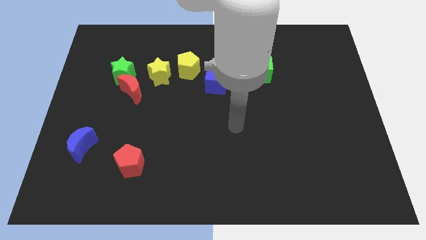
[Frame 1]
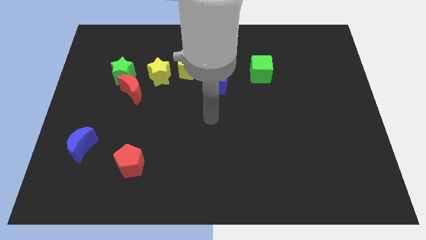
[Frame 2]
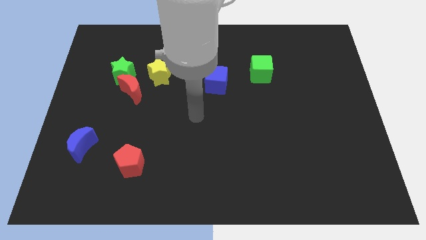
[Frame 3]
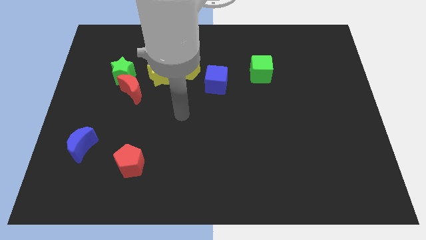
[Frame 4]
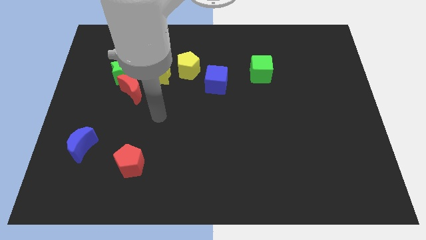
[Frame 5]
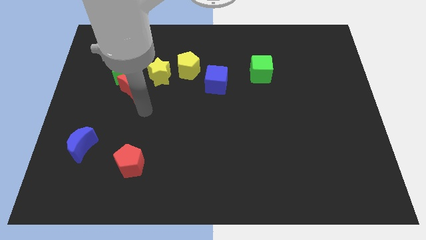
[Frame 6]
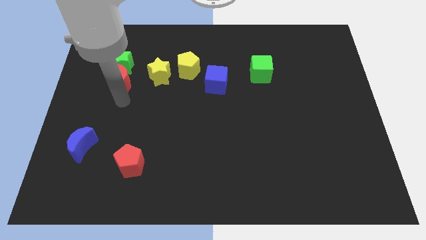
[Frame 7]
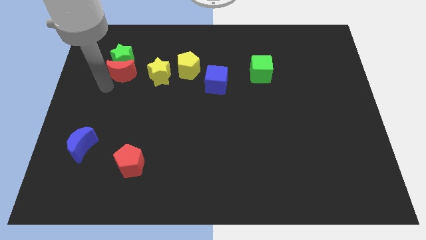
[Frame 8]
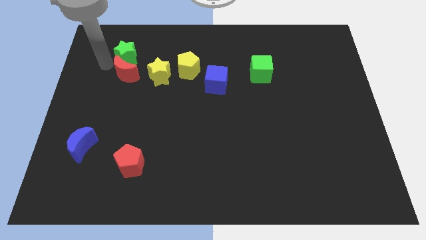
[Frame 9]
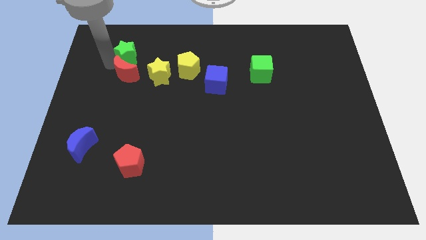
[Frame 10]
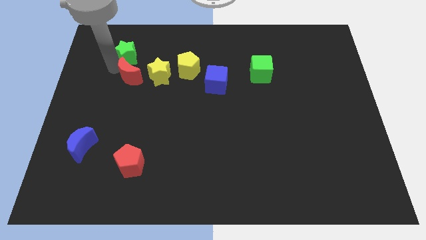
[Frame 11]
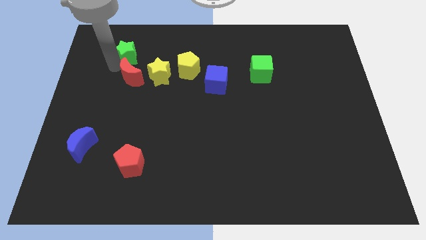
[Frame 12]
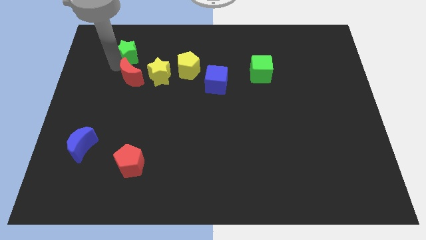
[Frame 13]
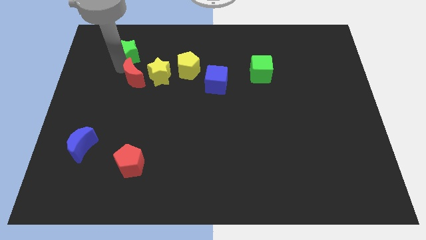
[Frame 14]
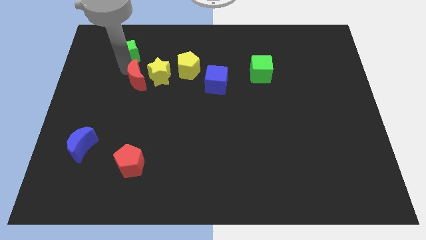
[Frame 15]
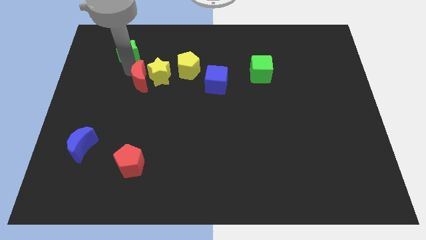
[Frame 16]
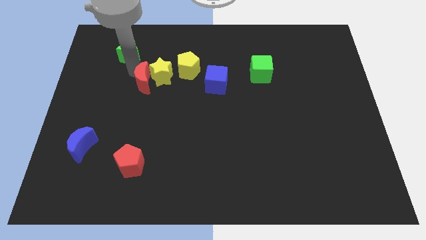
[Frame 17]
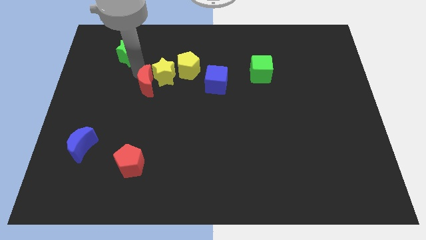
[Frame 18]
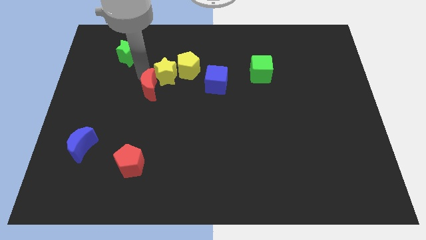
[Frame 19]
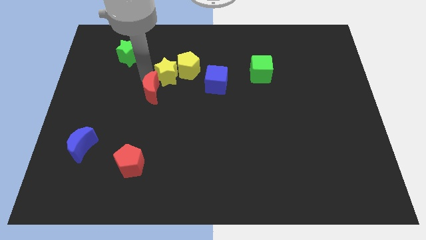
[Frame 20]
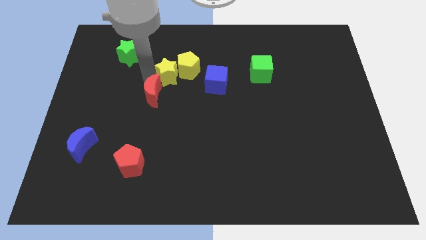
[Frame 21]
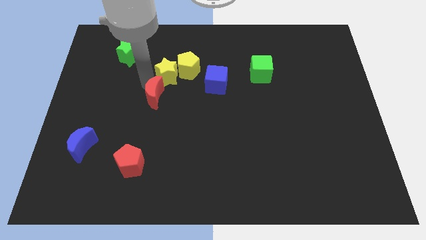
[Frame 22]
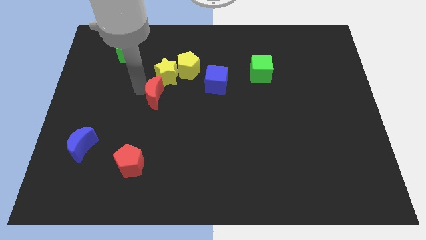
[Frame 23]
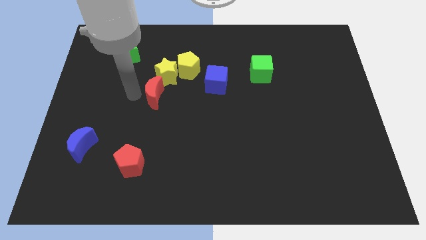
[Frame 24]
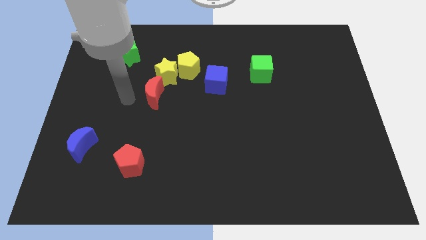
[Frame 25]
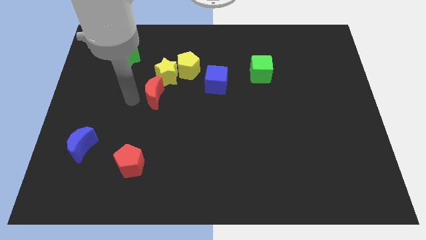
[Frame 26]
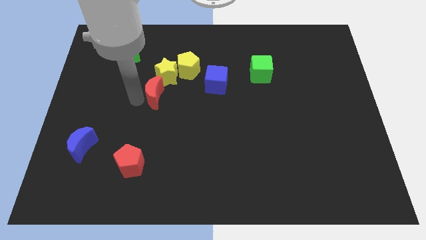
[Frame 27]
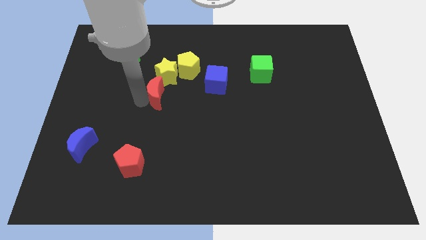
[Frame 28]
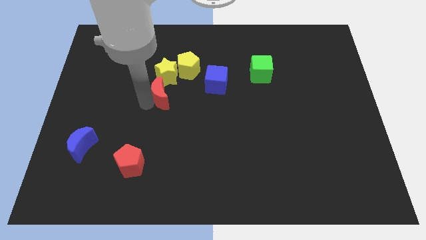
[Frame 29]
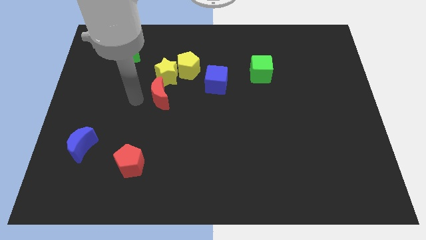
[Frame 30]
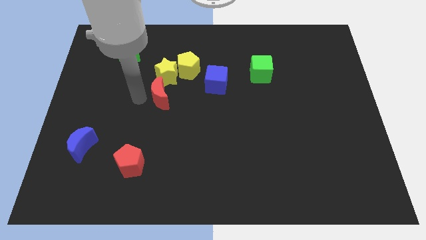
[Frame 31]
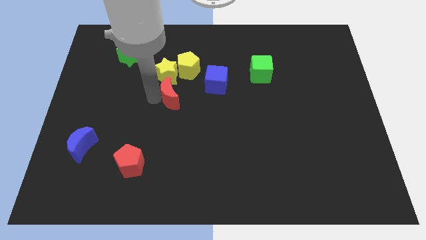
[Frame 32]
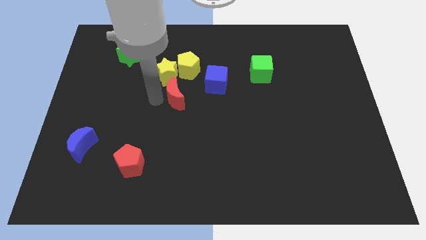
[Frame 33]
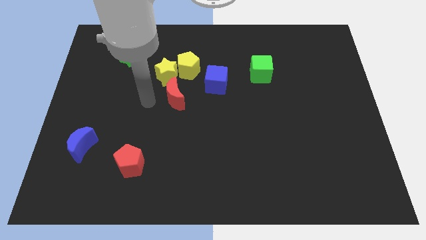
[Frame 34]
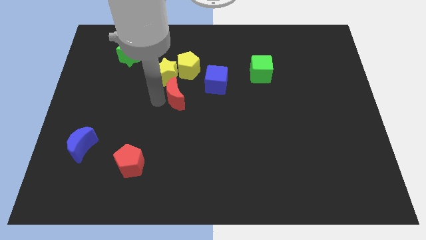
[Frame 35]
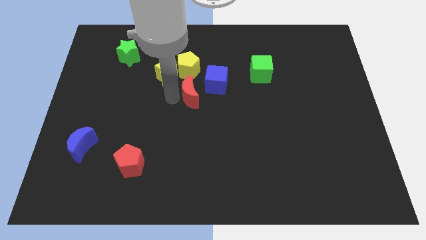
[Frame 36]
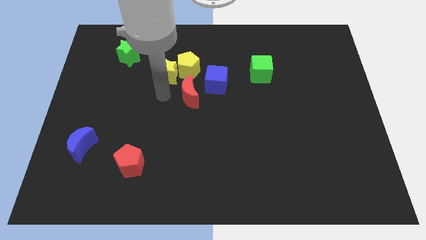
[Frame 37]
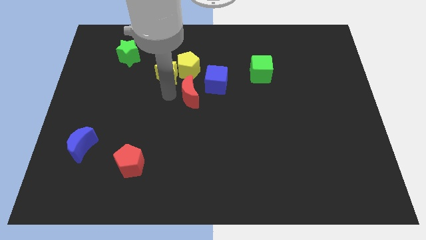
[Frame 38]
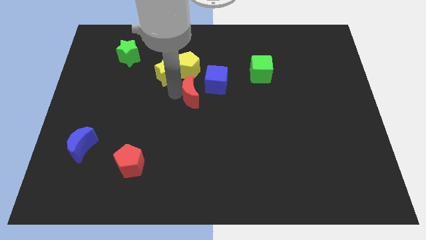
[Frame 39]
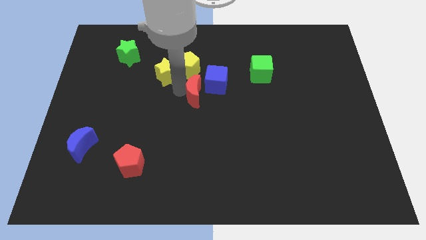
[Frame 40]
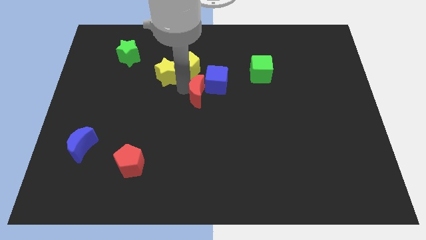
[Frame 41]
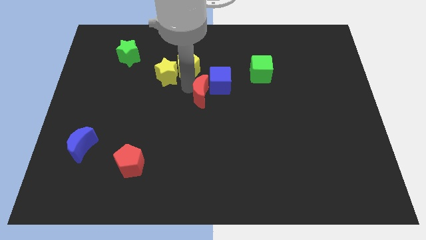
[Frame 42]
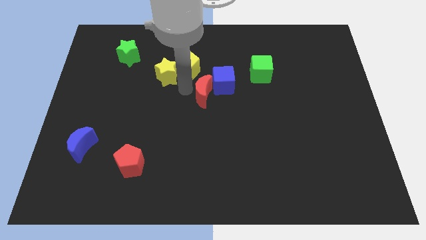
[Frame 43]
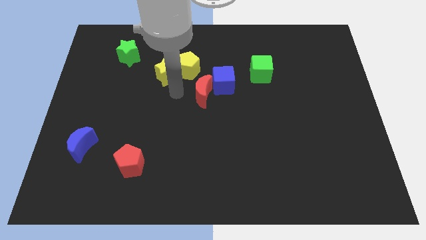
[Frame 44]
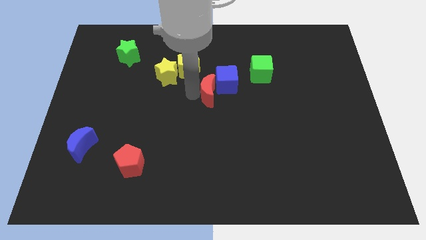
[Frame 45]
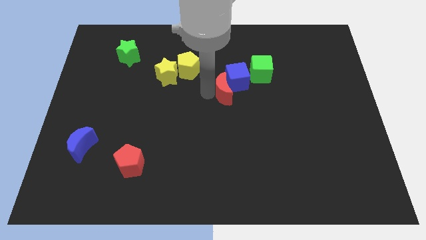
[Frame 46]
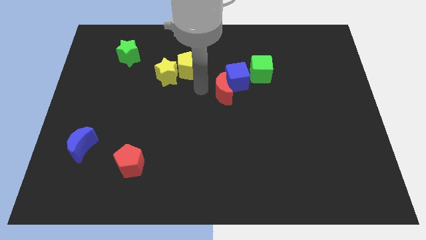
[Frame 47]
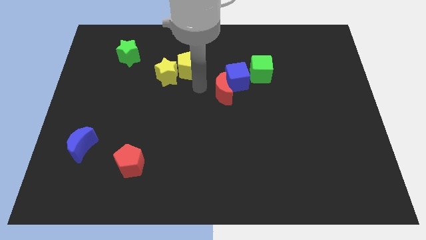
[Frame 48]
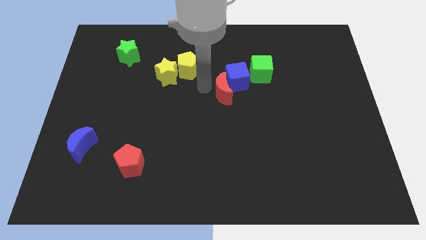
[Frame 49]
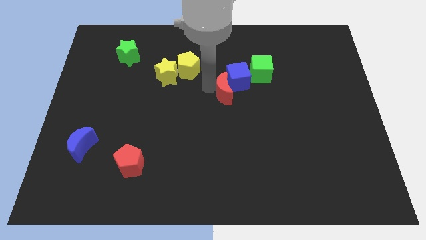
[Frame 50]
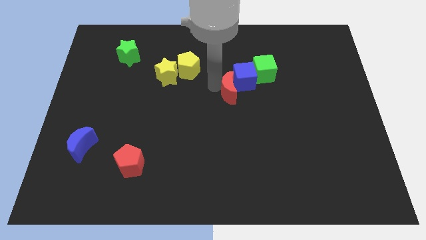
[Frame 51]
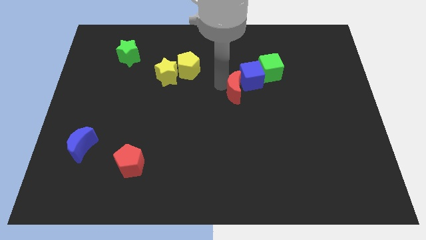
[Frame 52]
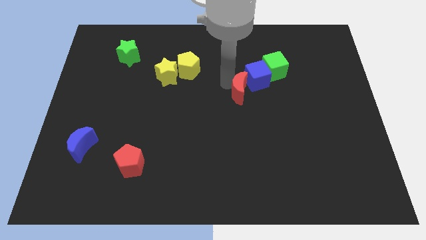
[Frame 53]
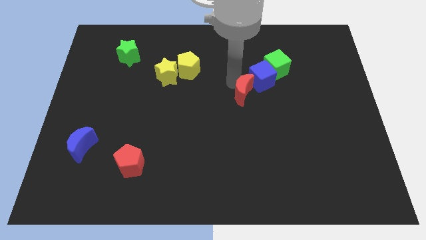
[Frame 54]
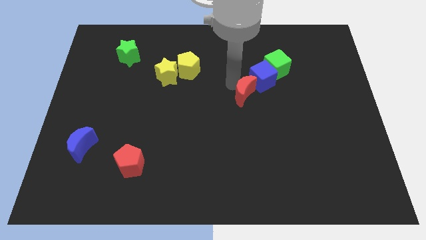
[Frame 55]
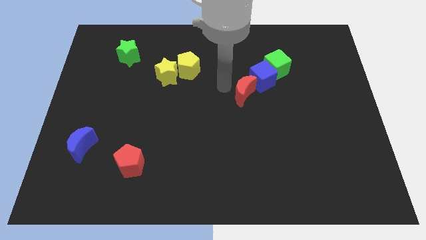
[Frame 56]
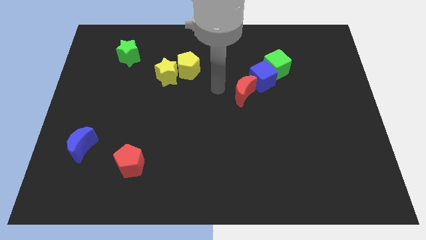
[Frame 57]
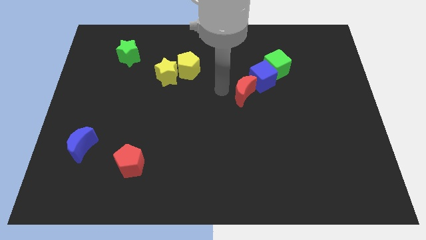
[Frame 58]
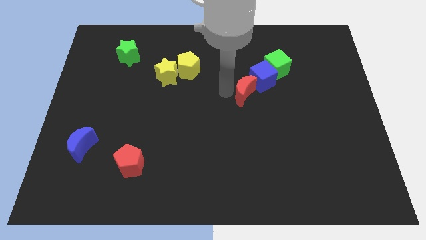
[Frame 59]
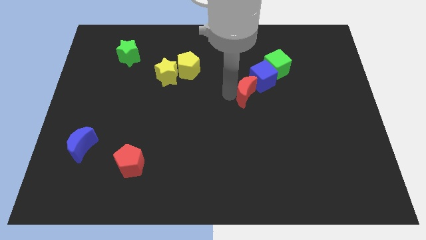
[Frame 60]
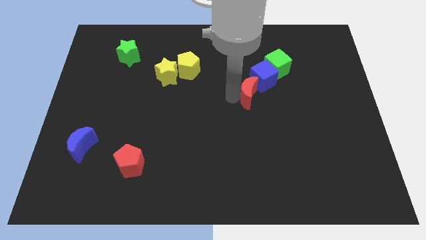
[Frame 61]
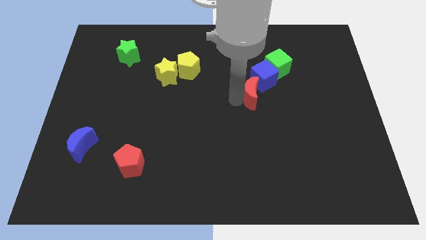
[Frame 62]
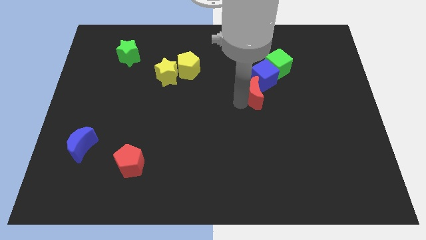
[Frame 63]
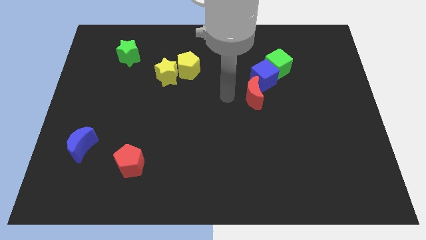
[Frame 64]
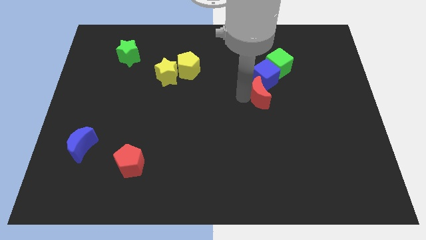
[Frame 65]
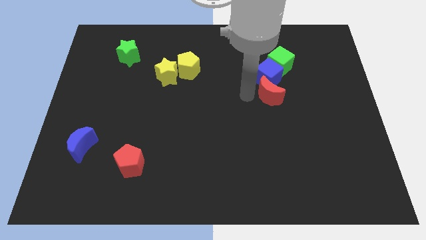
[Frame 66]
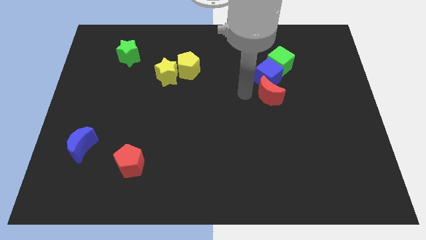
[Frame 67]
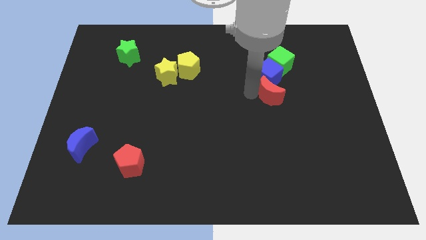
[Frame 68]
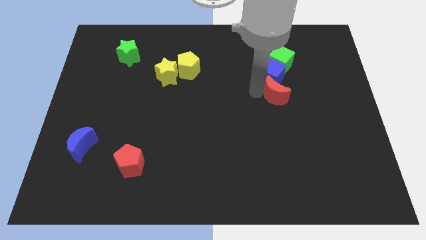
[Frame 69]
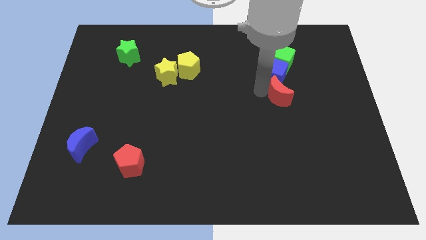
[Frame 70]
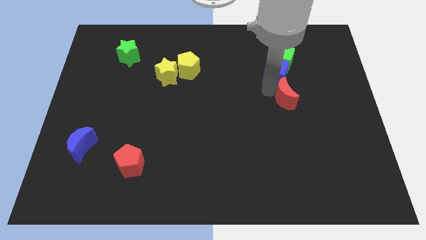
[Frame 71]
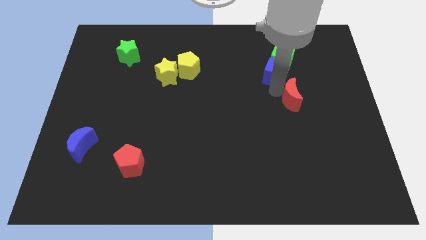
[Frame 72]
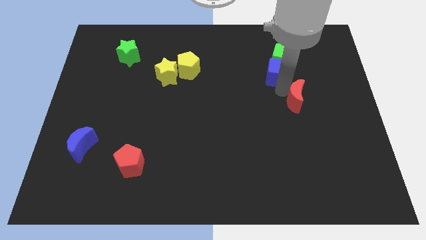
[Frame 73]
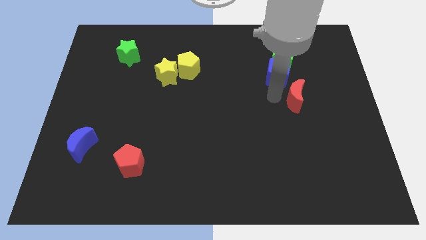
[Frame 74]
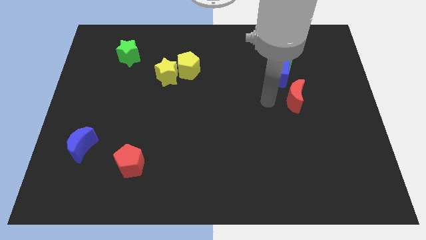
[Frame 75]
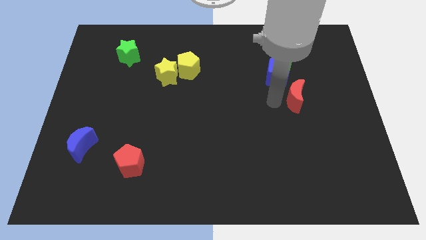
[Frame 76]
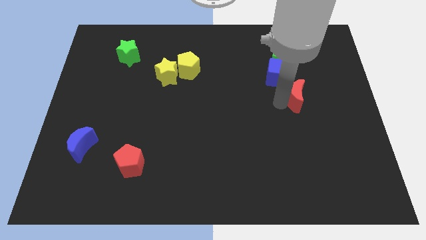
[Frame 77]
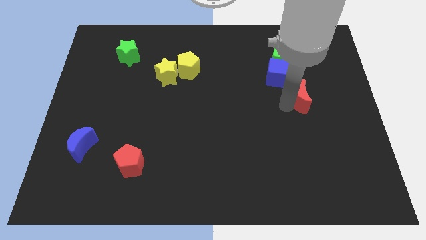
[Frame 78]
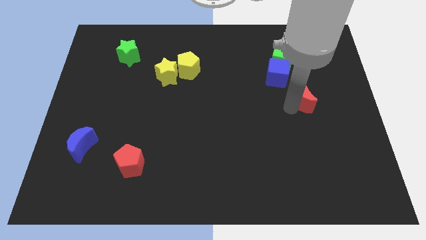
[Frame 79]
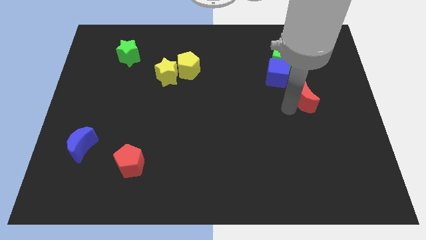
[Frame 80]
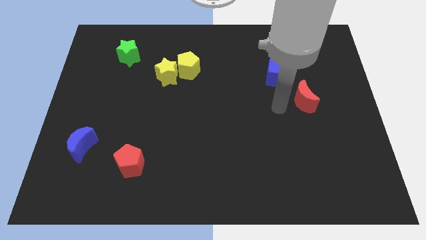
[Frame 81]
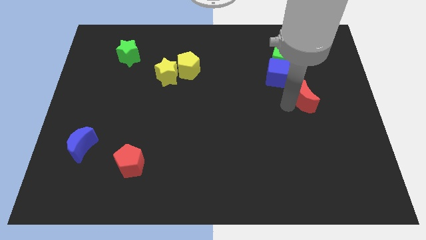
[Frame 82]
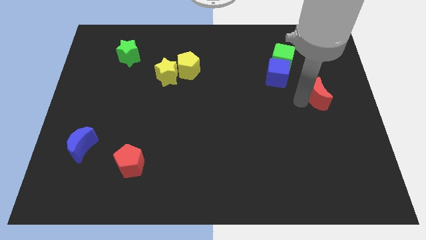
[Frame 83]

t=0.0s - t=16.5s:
move the red moon to the center right
